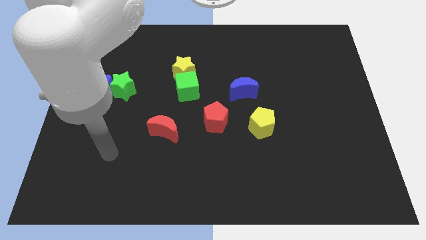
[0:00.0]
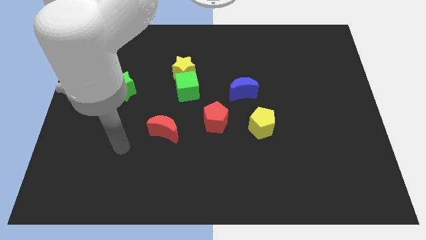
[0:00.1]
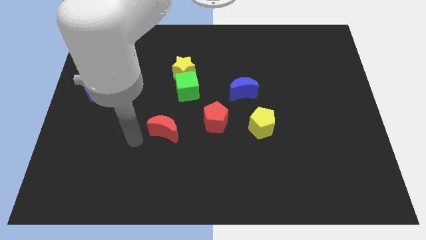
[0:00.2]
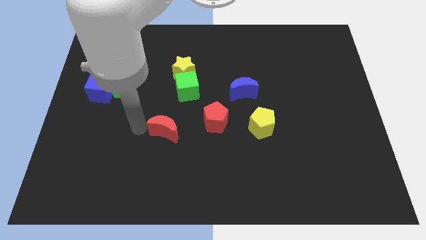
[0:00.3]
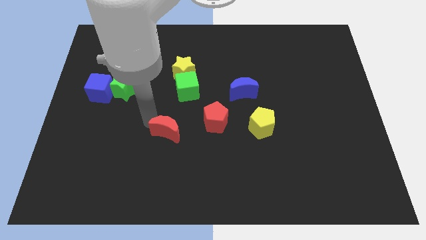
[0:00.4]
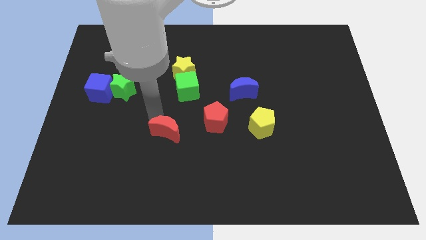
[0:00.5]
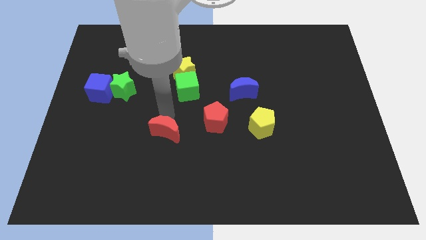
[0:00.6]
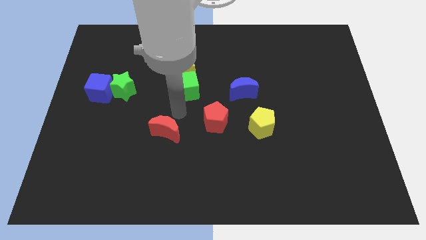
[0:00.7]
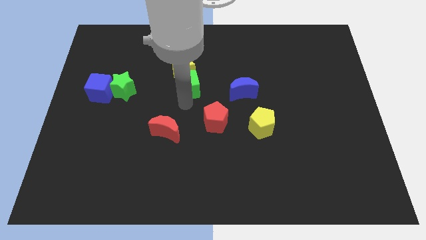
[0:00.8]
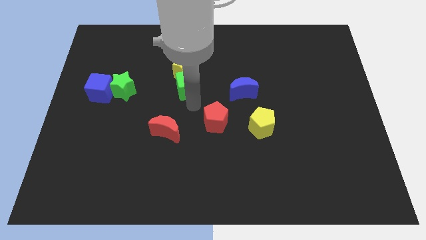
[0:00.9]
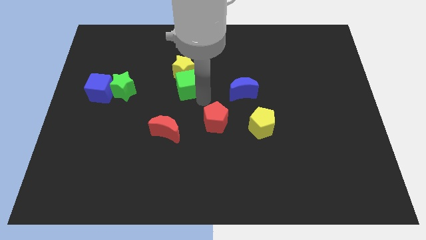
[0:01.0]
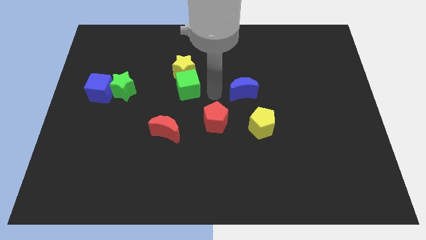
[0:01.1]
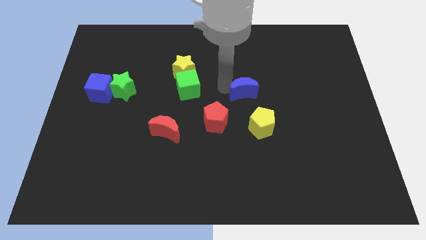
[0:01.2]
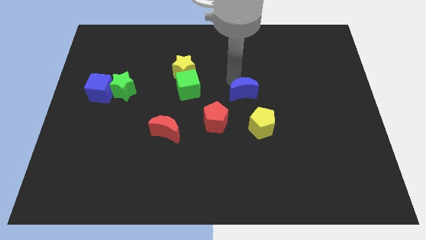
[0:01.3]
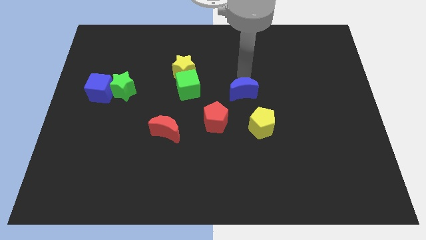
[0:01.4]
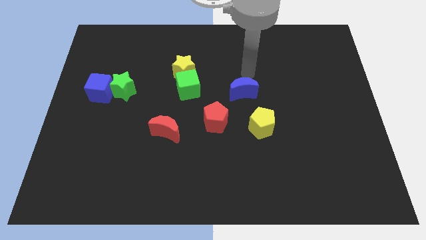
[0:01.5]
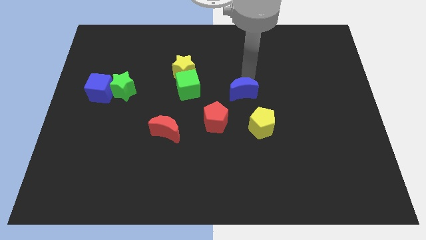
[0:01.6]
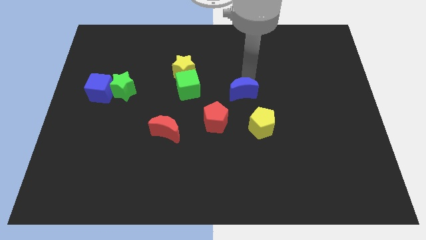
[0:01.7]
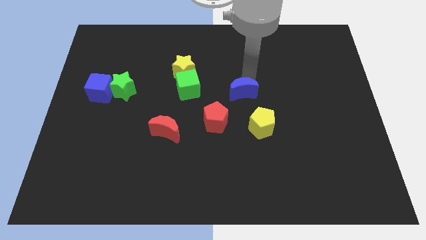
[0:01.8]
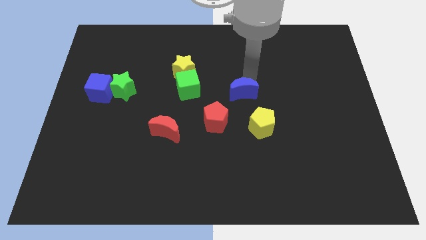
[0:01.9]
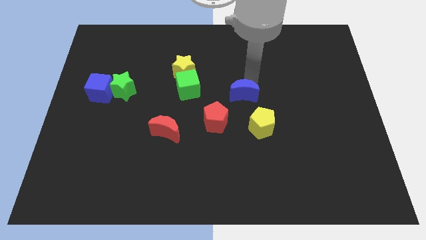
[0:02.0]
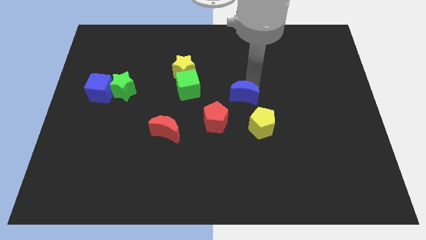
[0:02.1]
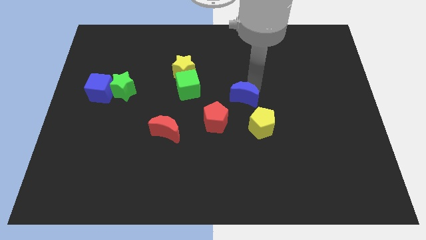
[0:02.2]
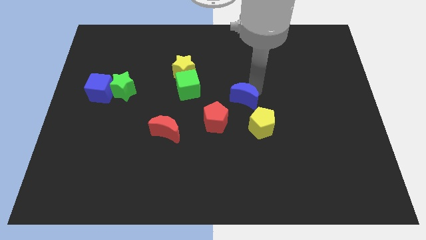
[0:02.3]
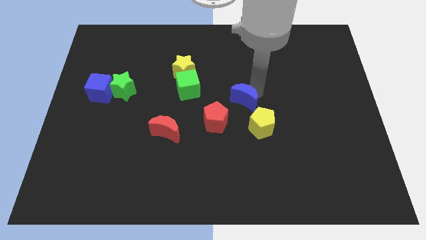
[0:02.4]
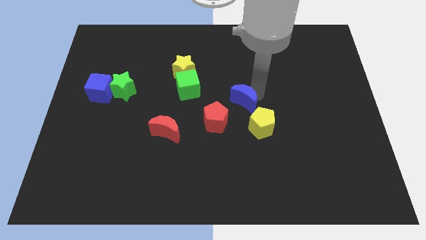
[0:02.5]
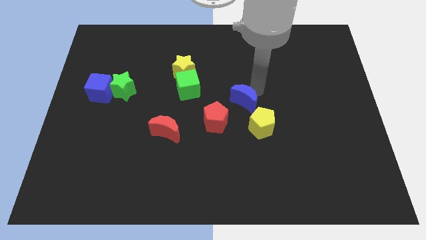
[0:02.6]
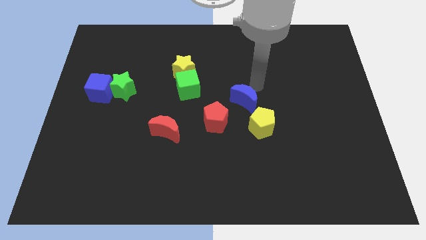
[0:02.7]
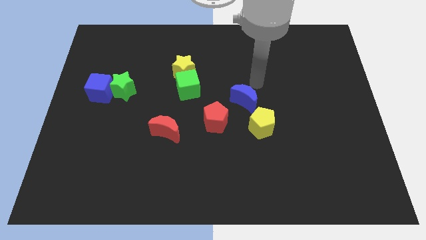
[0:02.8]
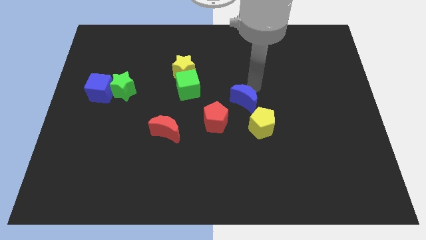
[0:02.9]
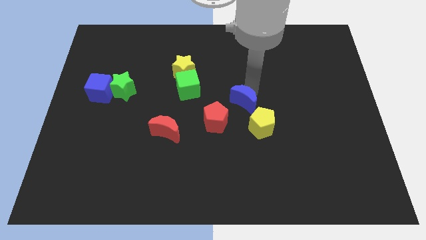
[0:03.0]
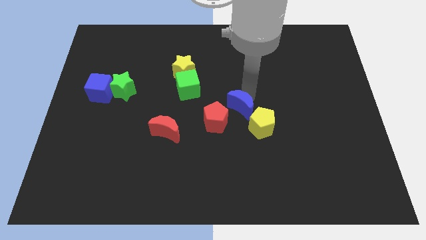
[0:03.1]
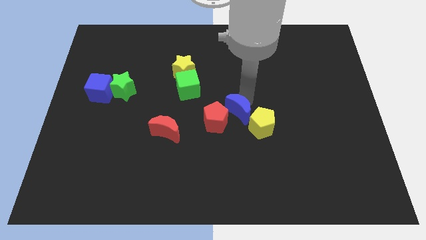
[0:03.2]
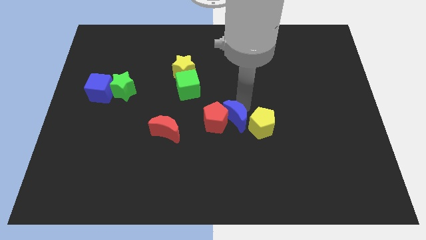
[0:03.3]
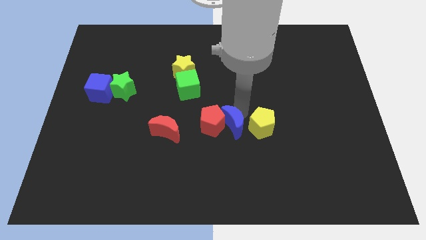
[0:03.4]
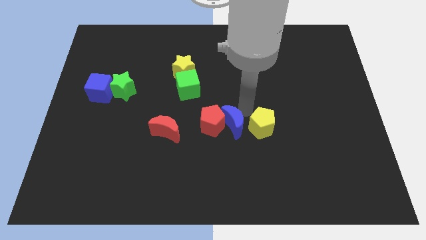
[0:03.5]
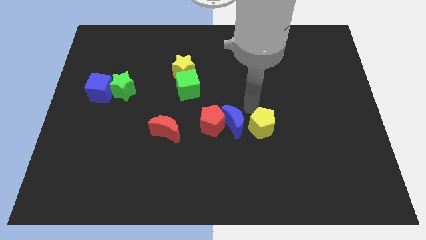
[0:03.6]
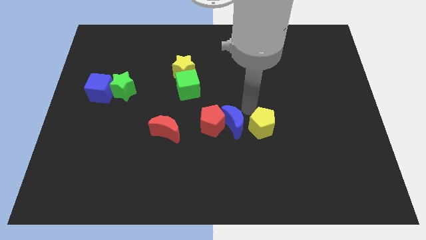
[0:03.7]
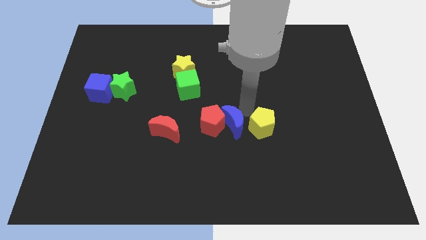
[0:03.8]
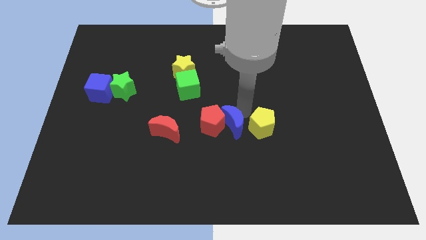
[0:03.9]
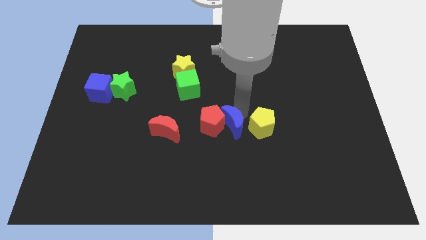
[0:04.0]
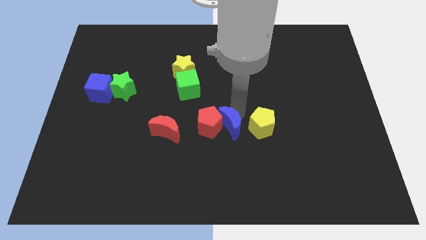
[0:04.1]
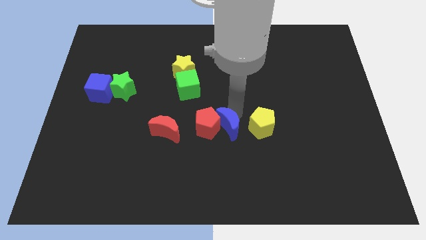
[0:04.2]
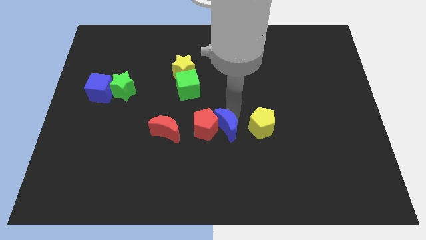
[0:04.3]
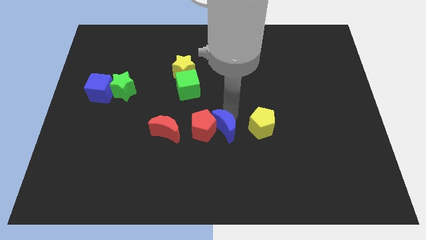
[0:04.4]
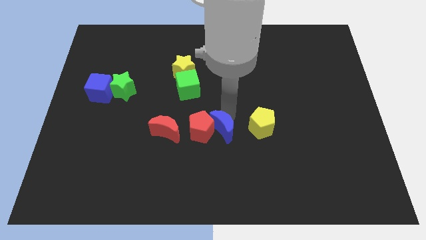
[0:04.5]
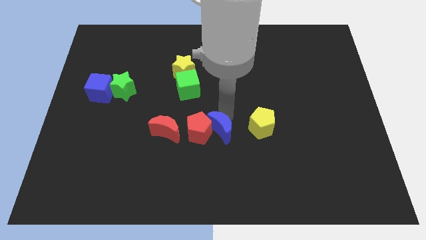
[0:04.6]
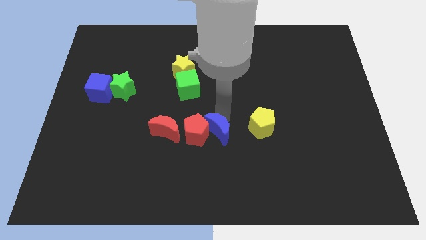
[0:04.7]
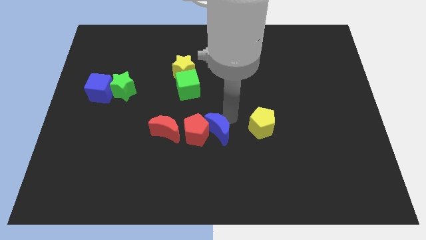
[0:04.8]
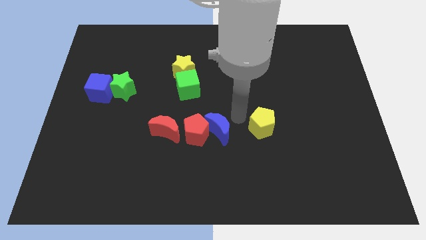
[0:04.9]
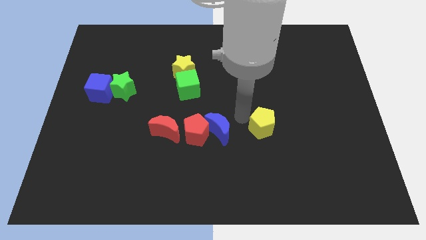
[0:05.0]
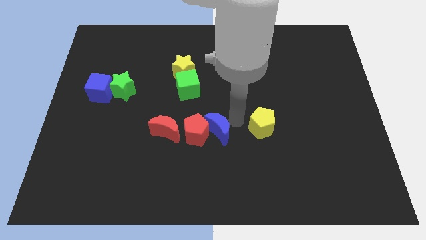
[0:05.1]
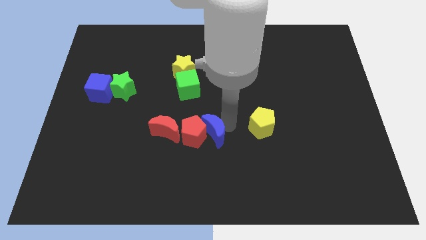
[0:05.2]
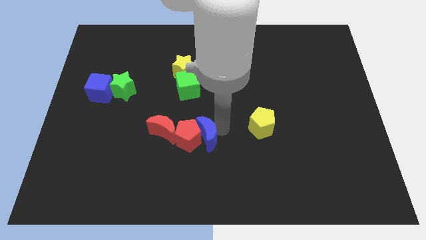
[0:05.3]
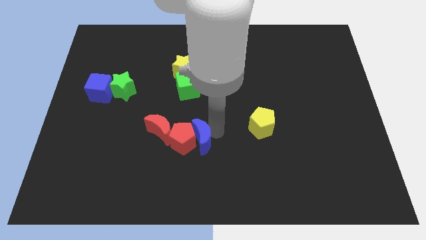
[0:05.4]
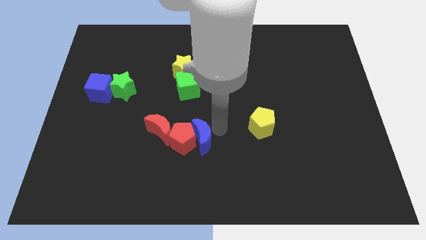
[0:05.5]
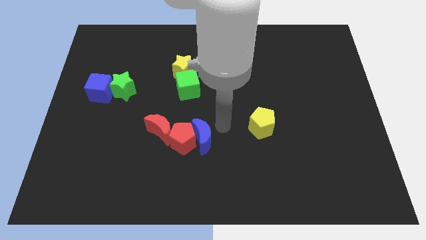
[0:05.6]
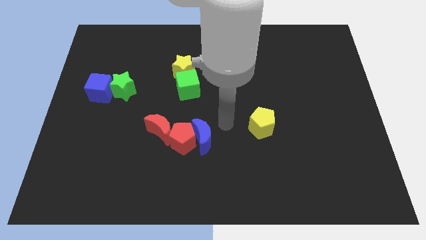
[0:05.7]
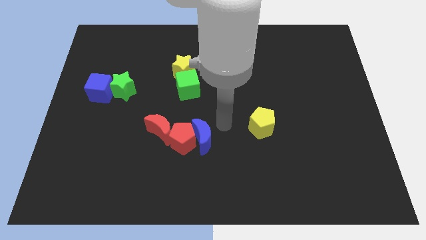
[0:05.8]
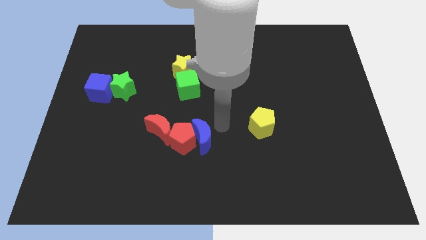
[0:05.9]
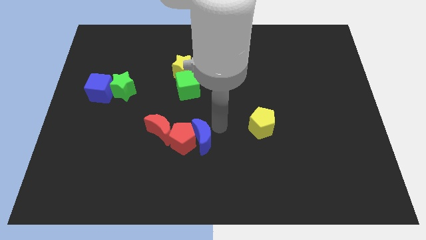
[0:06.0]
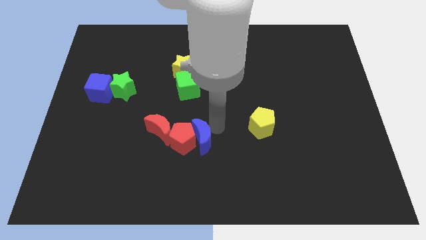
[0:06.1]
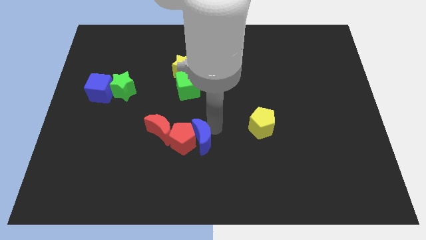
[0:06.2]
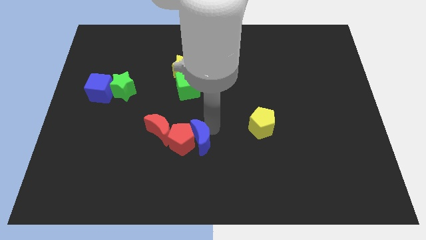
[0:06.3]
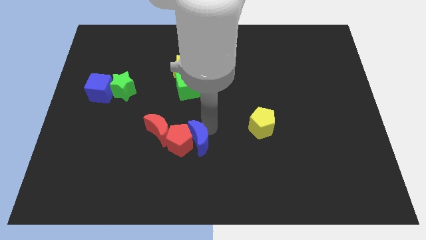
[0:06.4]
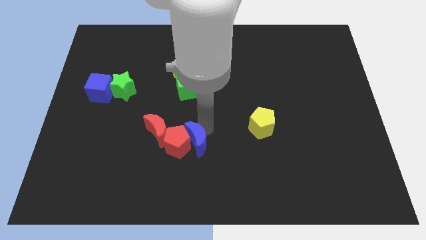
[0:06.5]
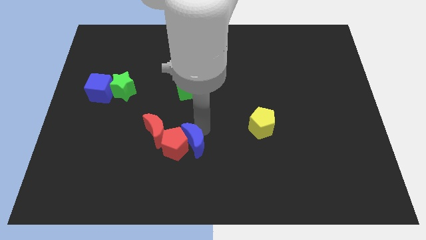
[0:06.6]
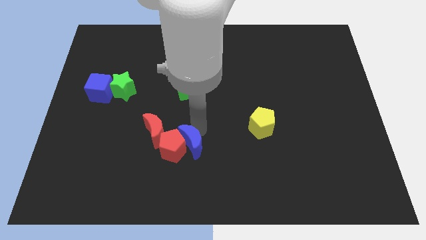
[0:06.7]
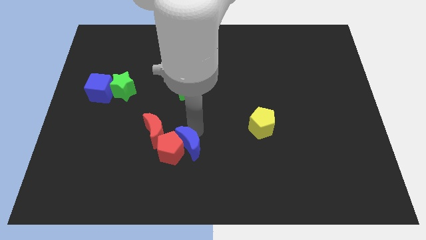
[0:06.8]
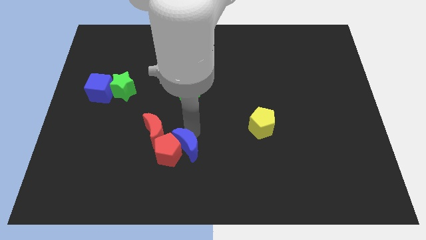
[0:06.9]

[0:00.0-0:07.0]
move the blue moon down and to the left

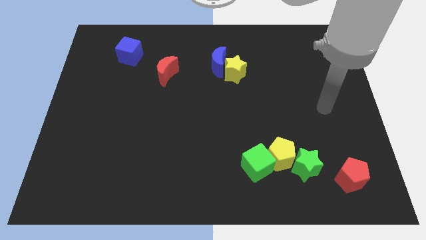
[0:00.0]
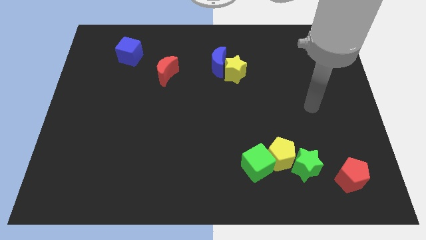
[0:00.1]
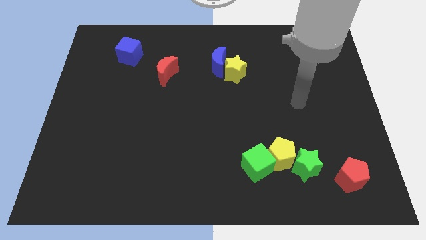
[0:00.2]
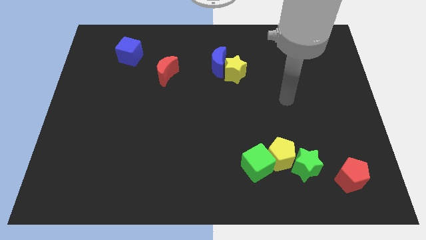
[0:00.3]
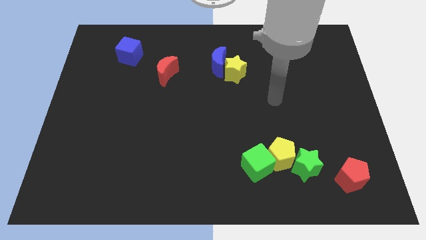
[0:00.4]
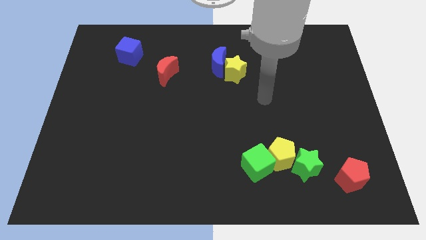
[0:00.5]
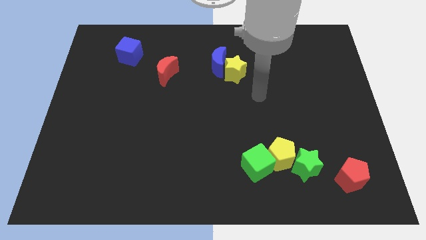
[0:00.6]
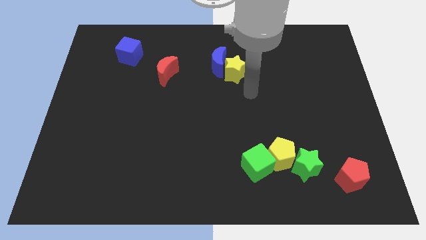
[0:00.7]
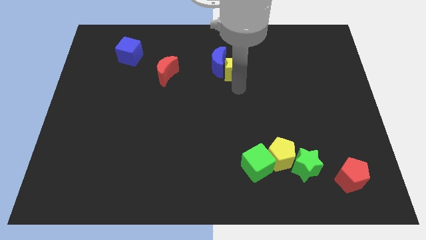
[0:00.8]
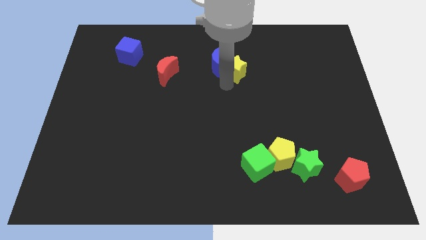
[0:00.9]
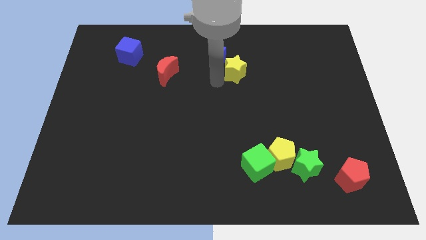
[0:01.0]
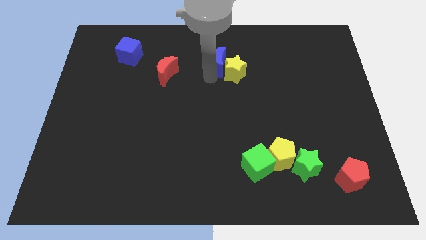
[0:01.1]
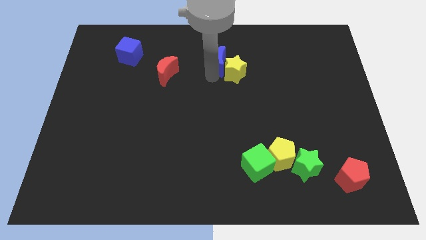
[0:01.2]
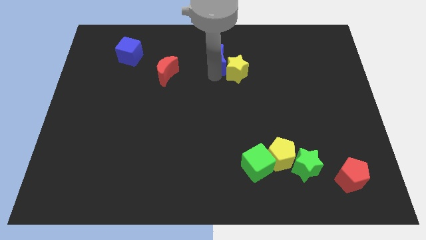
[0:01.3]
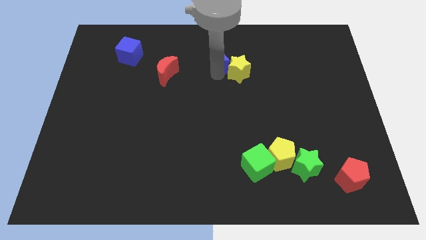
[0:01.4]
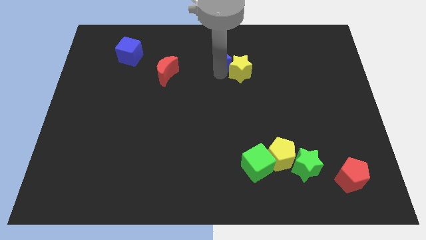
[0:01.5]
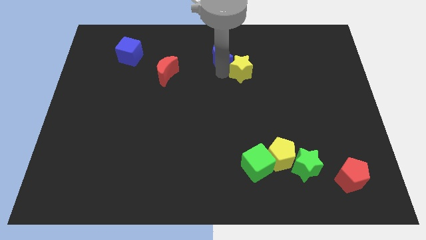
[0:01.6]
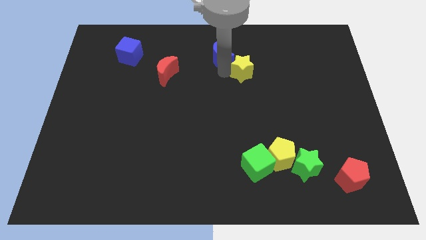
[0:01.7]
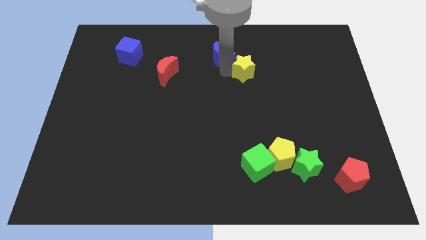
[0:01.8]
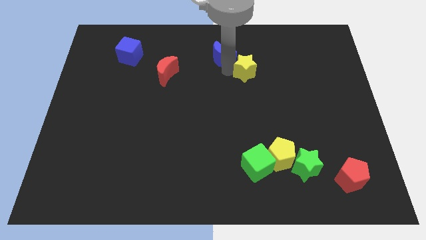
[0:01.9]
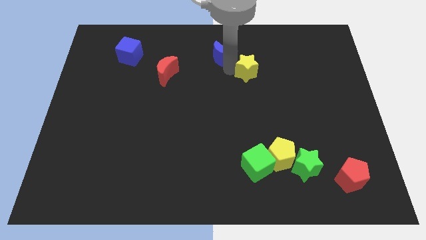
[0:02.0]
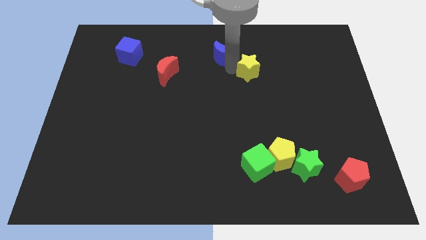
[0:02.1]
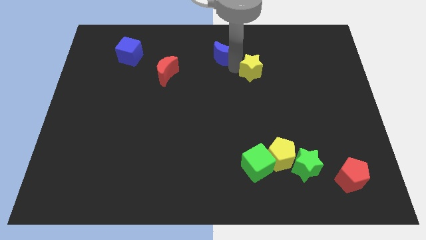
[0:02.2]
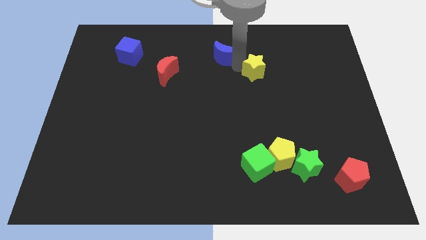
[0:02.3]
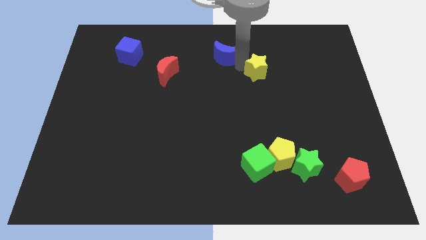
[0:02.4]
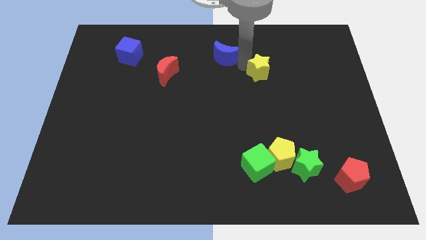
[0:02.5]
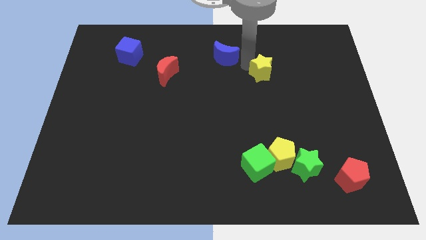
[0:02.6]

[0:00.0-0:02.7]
slide the yellow star a bit to the right
